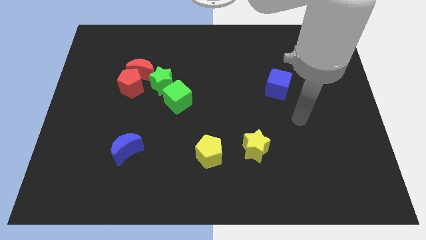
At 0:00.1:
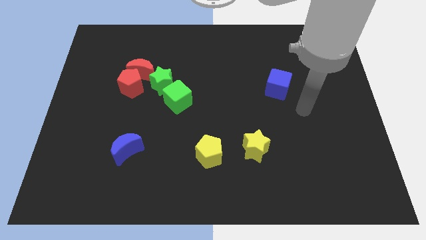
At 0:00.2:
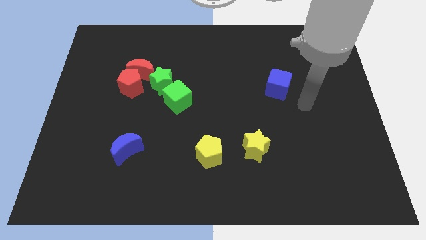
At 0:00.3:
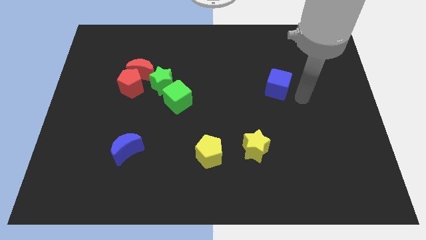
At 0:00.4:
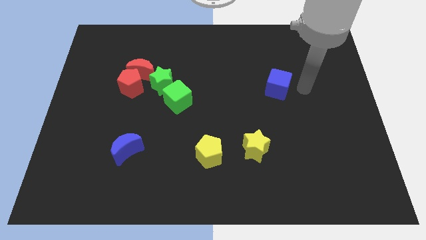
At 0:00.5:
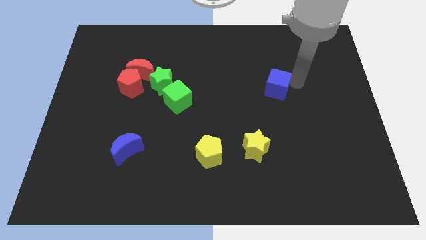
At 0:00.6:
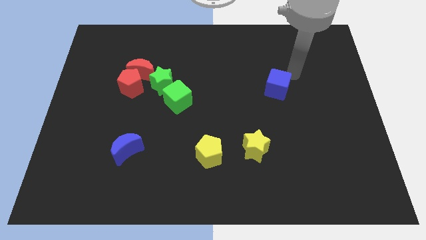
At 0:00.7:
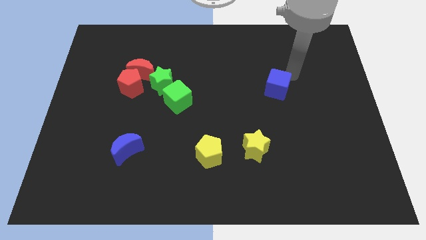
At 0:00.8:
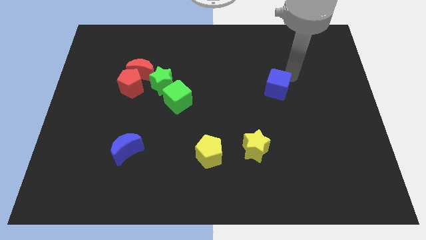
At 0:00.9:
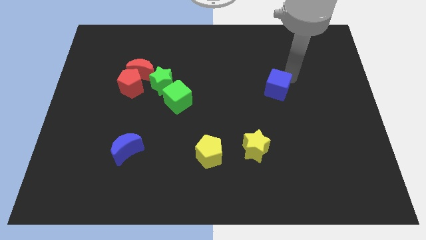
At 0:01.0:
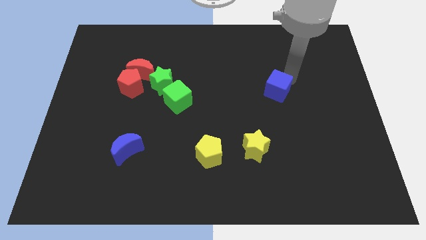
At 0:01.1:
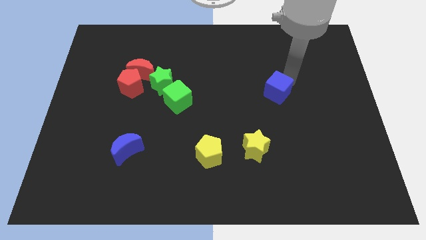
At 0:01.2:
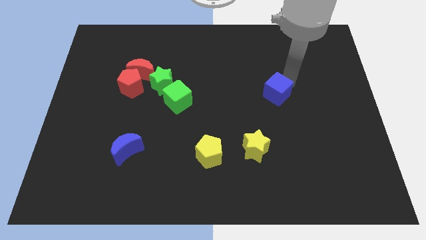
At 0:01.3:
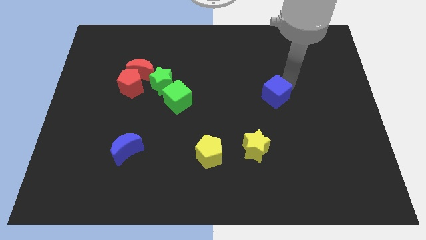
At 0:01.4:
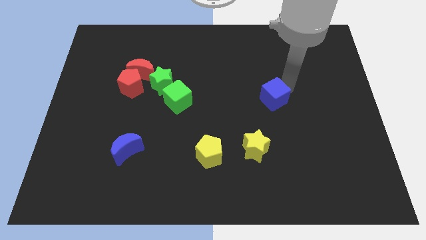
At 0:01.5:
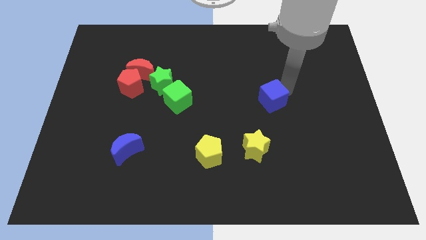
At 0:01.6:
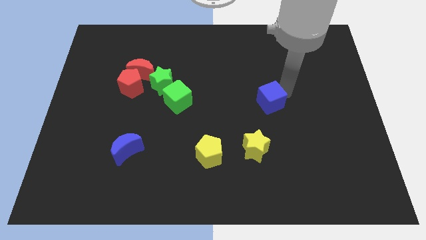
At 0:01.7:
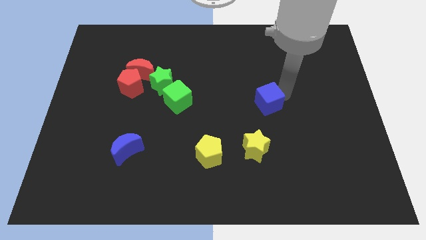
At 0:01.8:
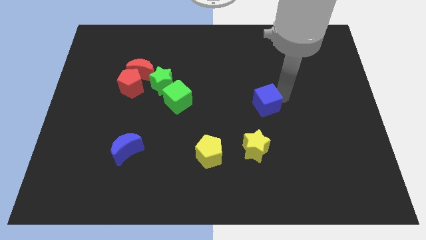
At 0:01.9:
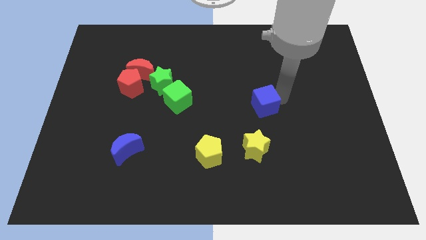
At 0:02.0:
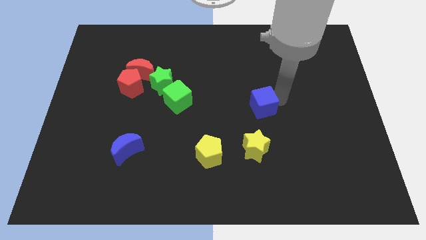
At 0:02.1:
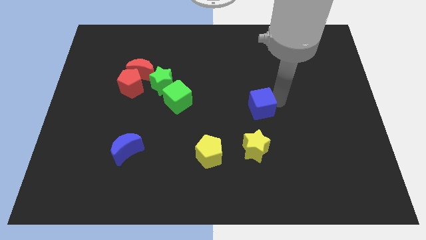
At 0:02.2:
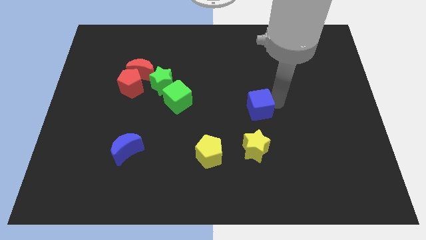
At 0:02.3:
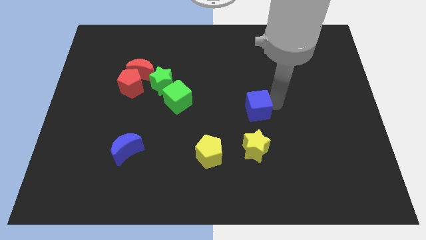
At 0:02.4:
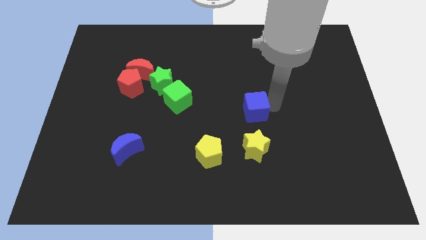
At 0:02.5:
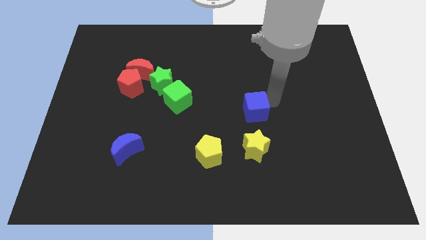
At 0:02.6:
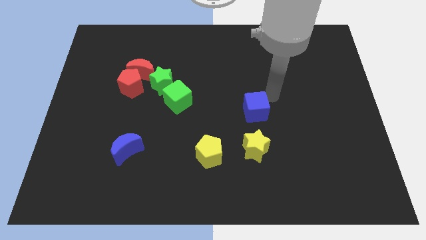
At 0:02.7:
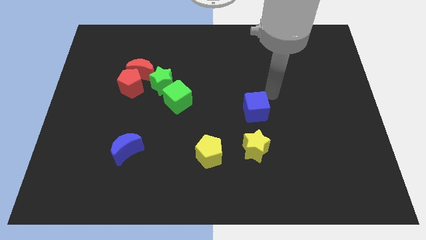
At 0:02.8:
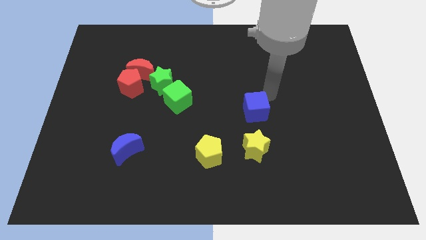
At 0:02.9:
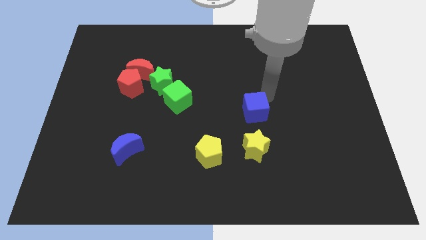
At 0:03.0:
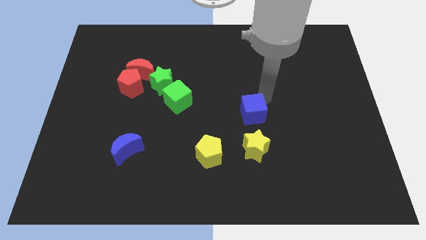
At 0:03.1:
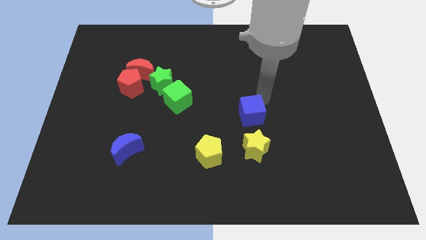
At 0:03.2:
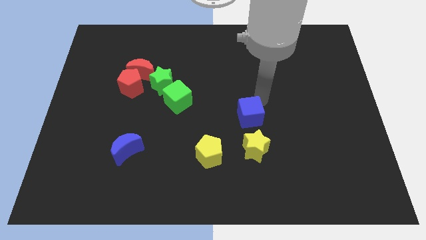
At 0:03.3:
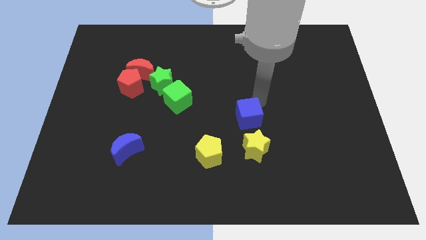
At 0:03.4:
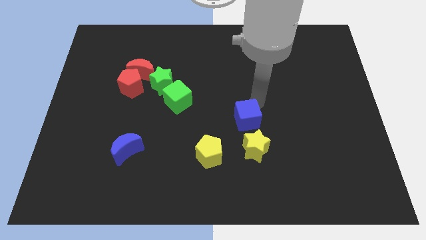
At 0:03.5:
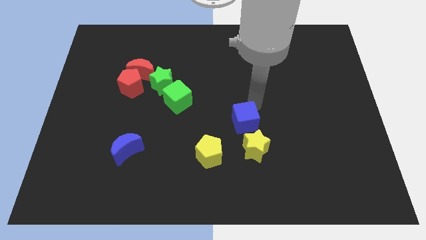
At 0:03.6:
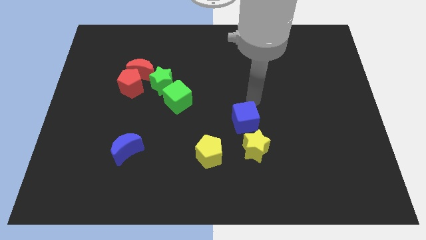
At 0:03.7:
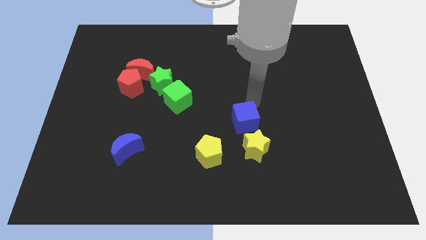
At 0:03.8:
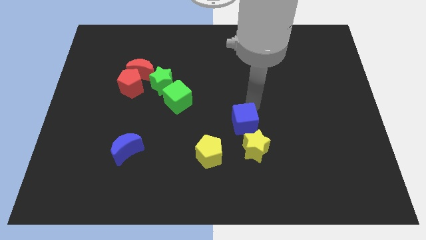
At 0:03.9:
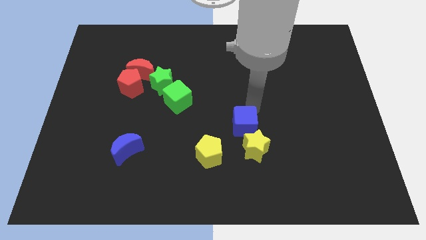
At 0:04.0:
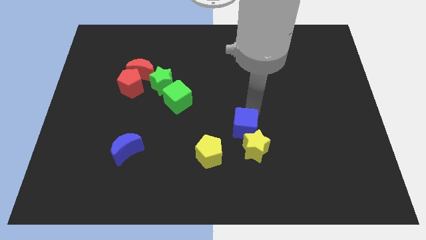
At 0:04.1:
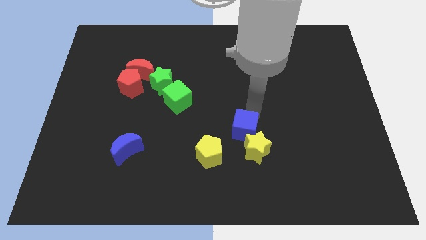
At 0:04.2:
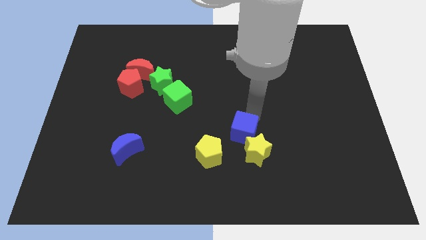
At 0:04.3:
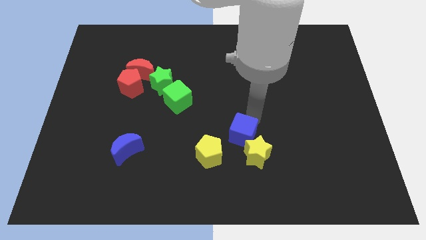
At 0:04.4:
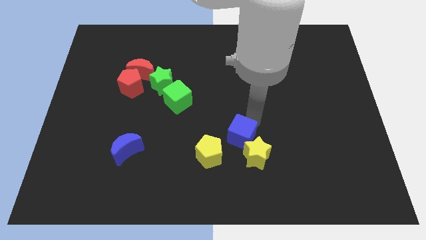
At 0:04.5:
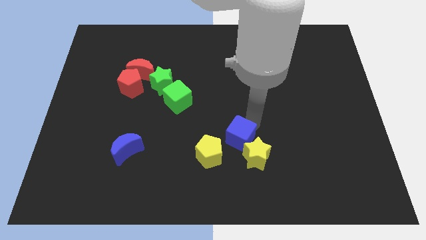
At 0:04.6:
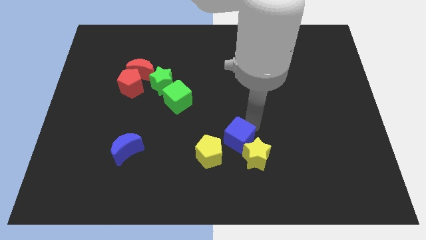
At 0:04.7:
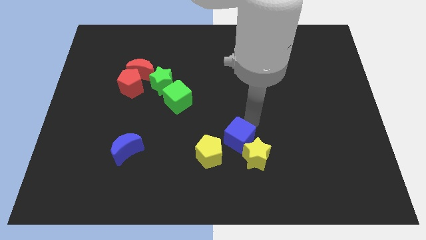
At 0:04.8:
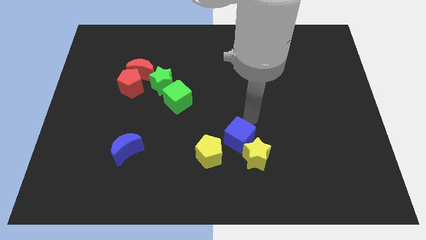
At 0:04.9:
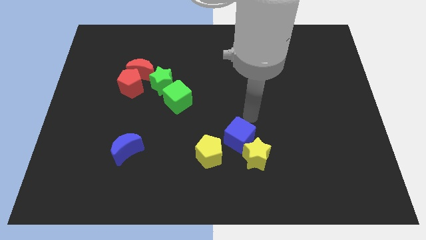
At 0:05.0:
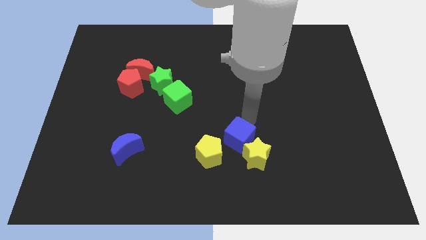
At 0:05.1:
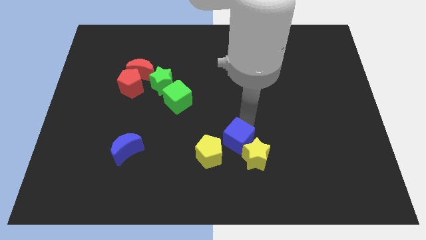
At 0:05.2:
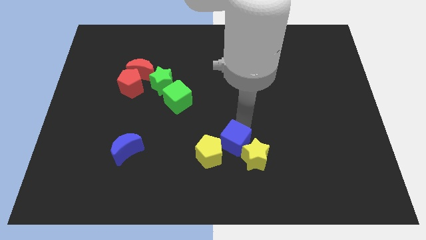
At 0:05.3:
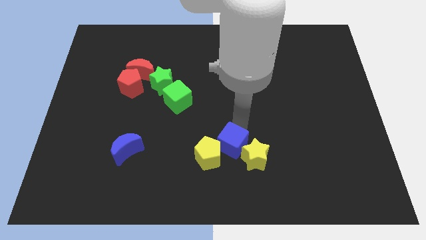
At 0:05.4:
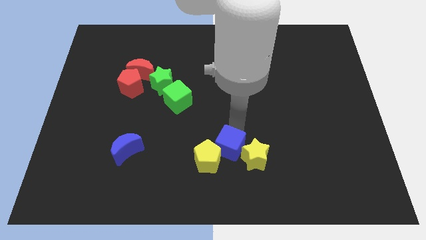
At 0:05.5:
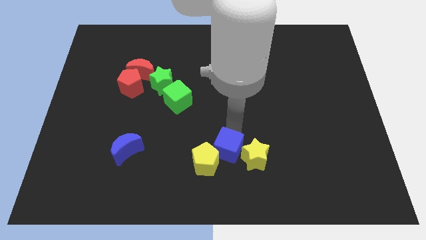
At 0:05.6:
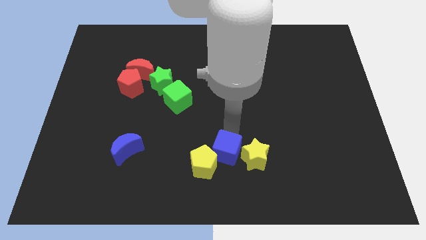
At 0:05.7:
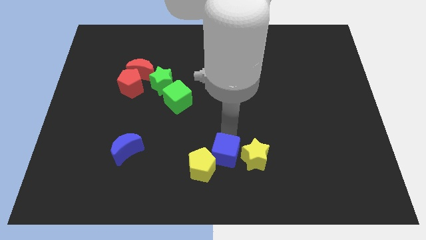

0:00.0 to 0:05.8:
slide the blue cube to the bottom side
